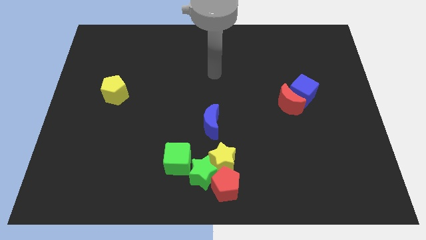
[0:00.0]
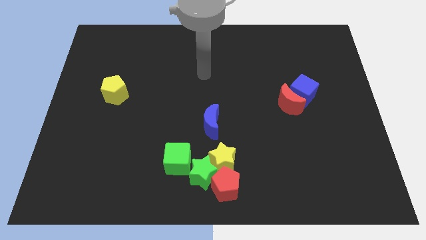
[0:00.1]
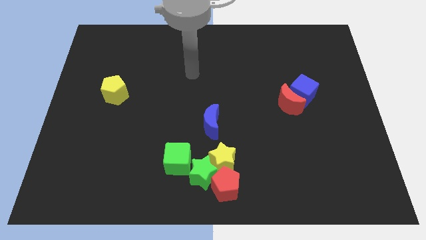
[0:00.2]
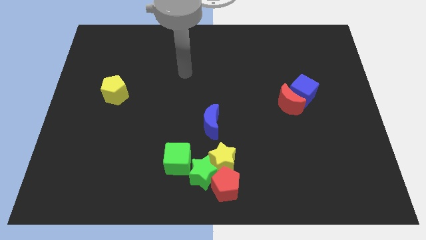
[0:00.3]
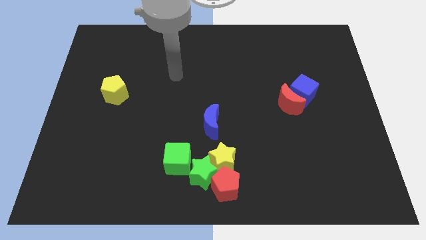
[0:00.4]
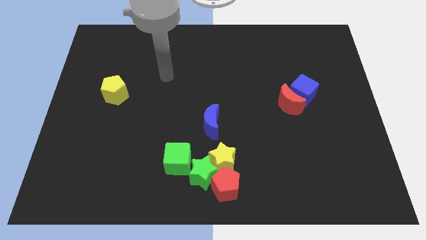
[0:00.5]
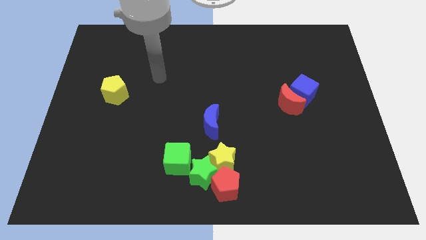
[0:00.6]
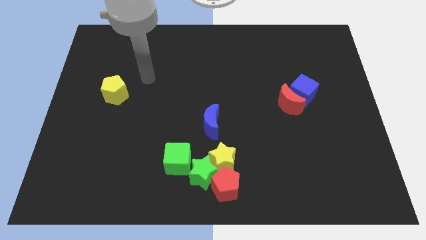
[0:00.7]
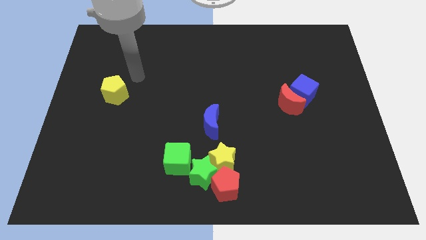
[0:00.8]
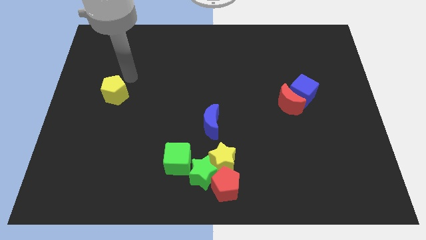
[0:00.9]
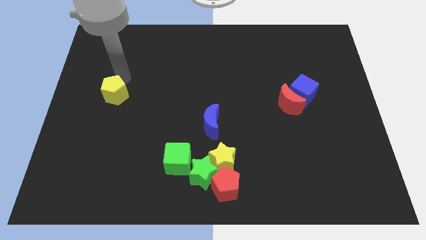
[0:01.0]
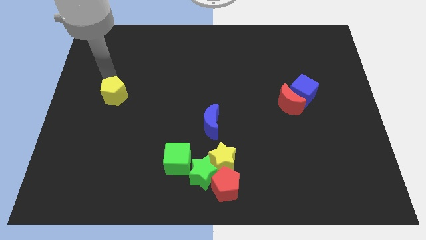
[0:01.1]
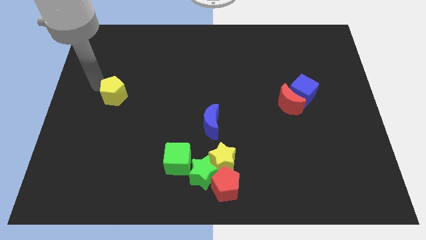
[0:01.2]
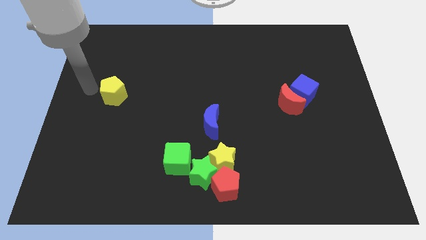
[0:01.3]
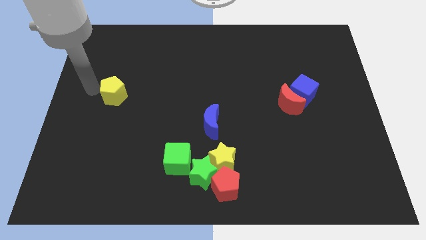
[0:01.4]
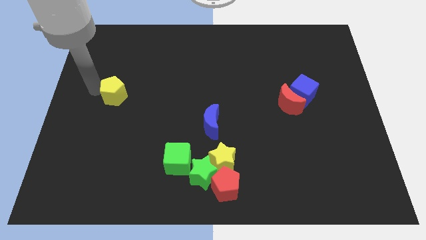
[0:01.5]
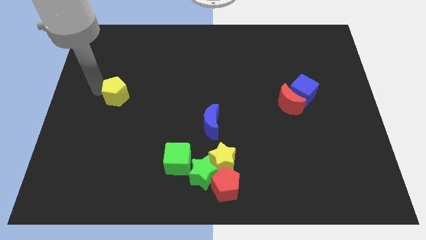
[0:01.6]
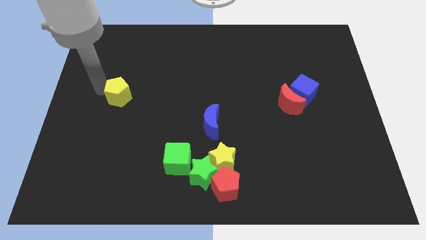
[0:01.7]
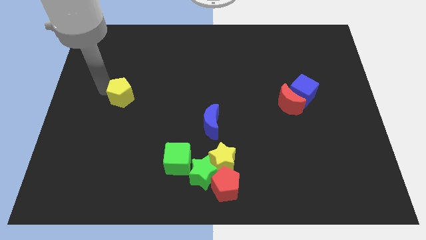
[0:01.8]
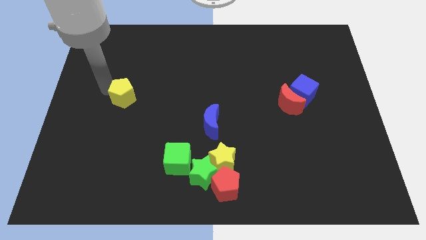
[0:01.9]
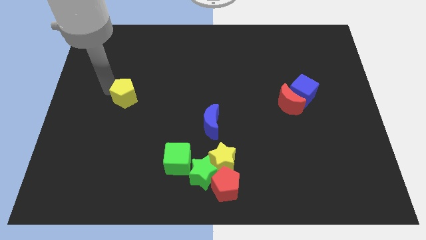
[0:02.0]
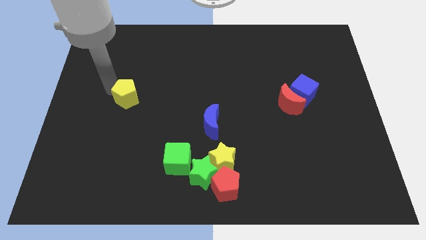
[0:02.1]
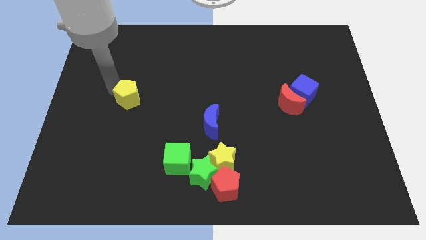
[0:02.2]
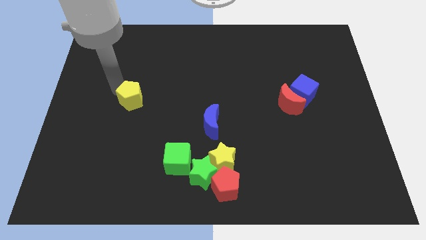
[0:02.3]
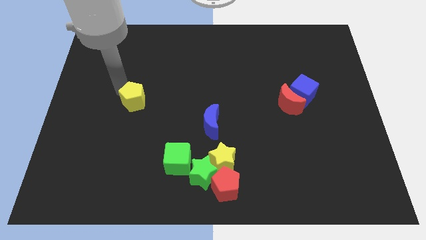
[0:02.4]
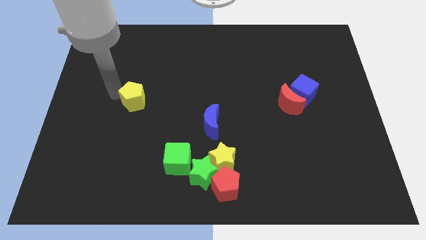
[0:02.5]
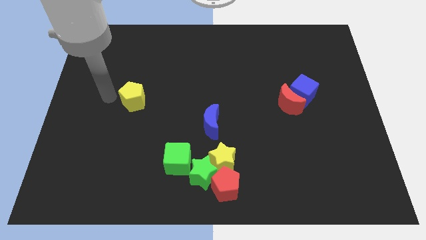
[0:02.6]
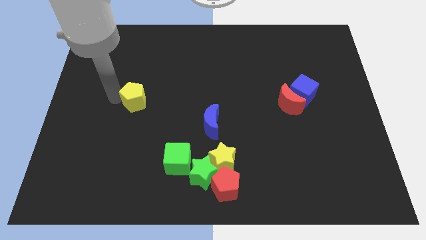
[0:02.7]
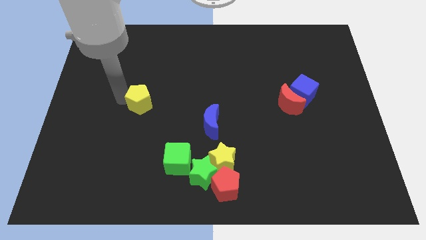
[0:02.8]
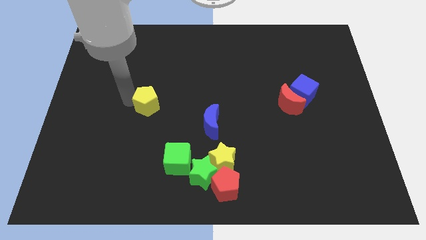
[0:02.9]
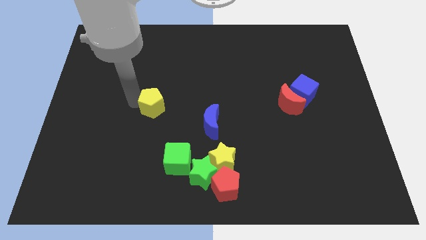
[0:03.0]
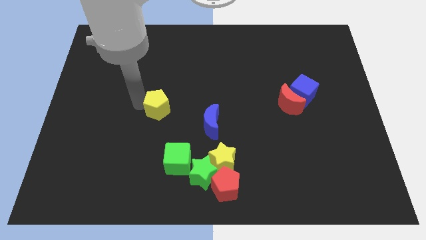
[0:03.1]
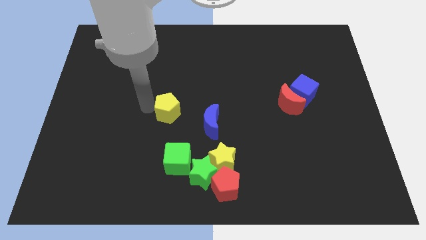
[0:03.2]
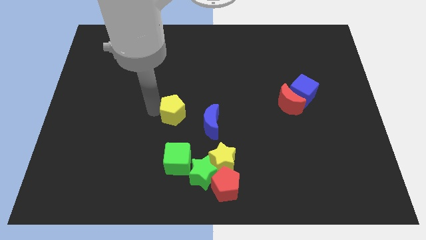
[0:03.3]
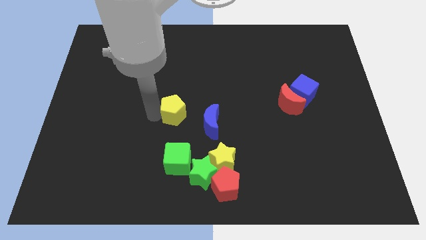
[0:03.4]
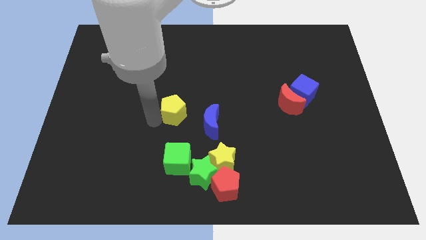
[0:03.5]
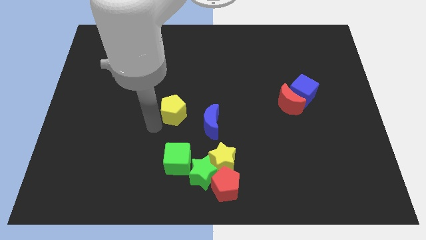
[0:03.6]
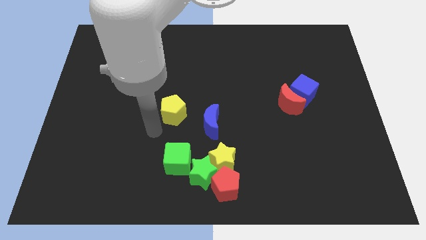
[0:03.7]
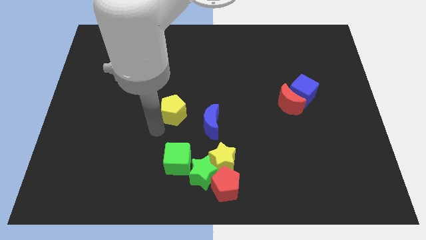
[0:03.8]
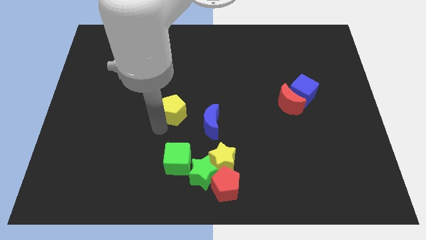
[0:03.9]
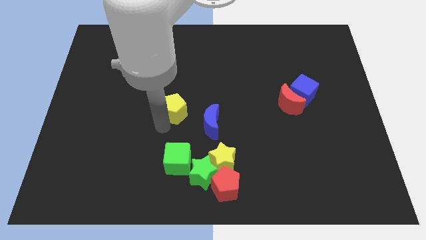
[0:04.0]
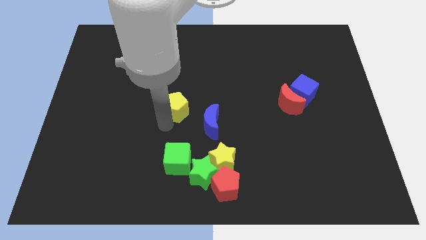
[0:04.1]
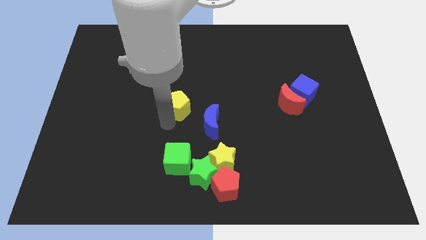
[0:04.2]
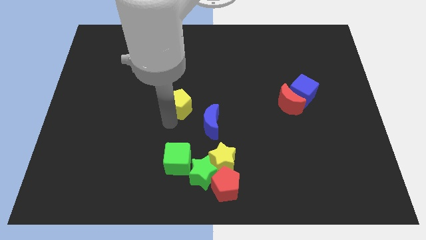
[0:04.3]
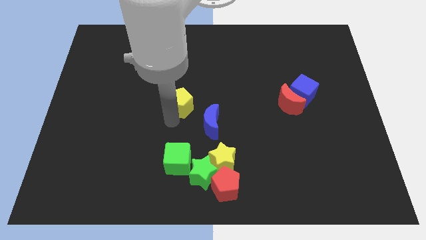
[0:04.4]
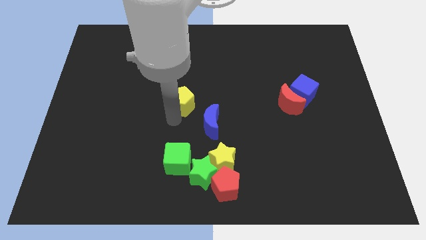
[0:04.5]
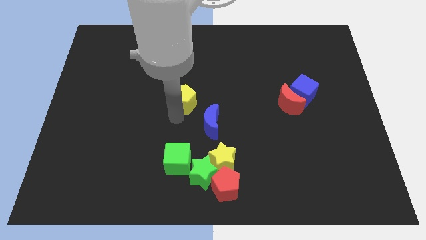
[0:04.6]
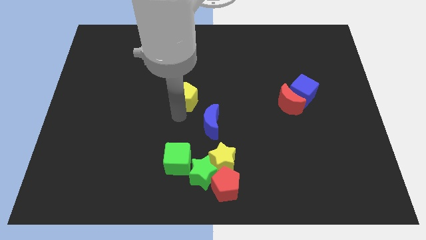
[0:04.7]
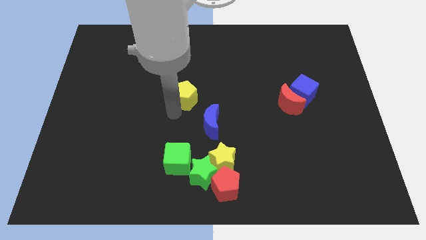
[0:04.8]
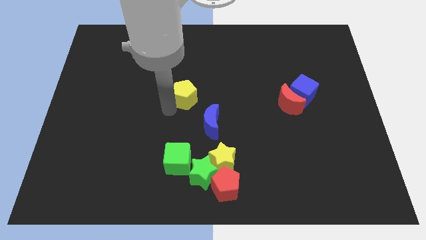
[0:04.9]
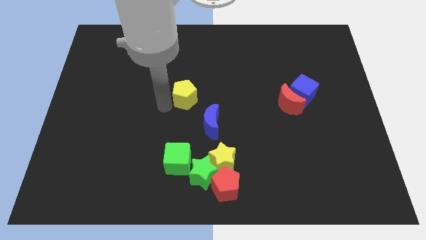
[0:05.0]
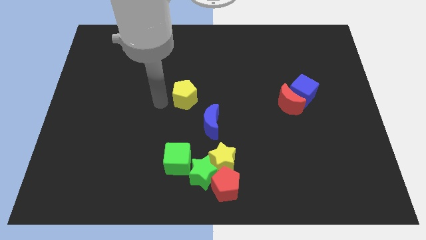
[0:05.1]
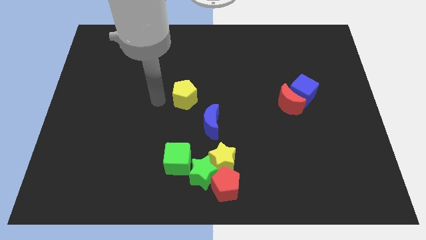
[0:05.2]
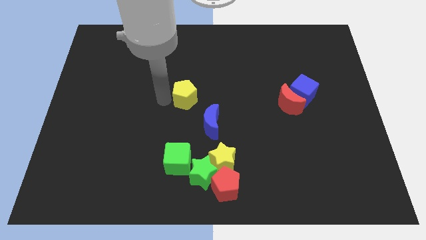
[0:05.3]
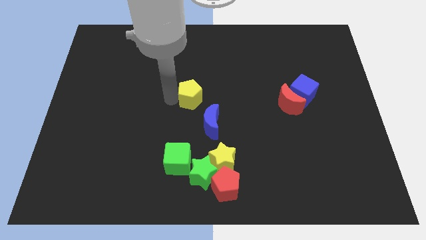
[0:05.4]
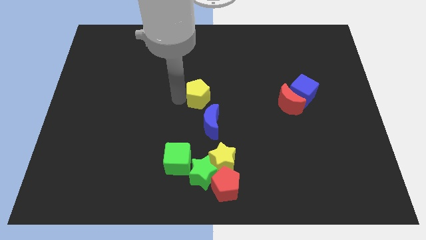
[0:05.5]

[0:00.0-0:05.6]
slide the yellow pentagon to the right

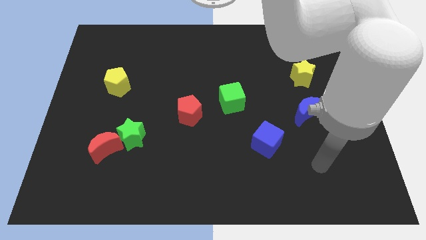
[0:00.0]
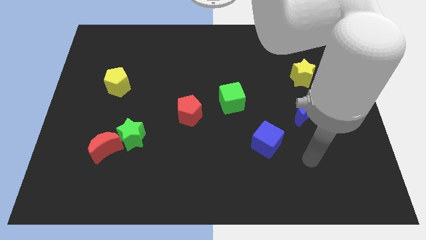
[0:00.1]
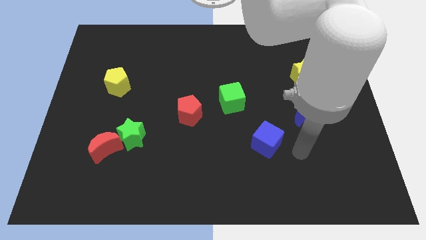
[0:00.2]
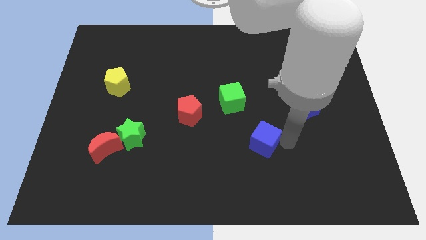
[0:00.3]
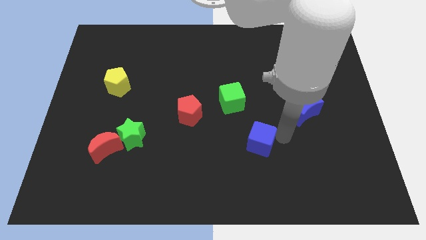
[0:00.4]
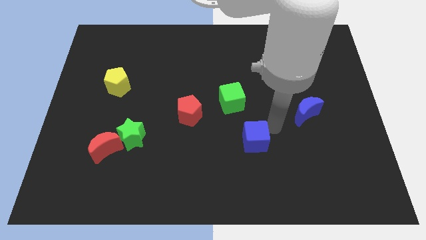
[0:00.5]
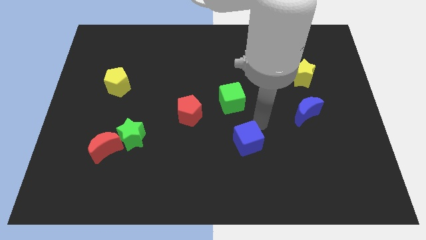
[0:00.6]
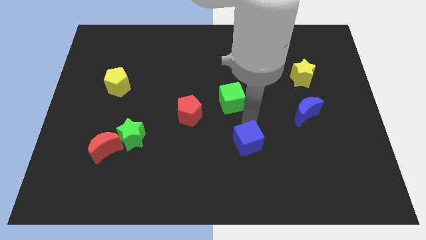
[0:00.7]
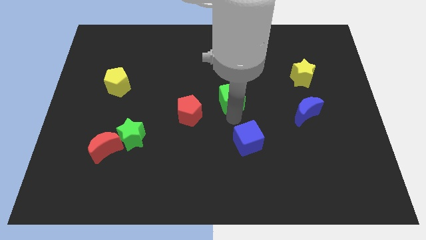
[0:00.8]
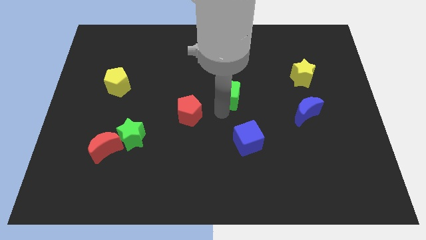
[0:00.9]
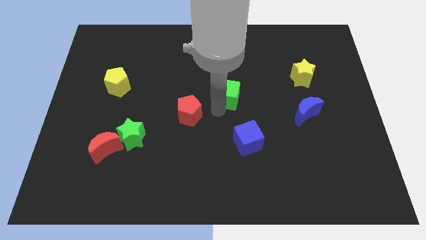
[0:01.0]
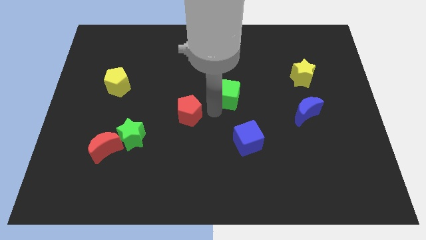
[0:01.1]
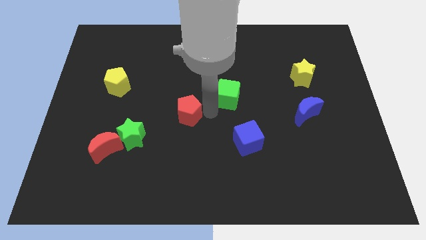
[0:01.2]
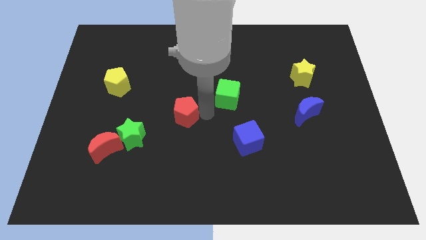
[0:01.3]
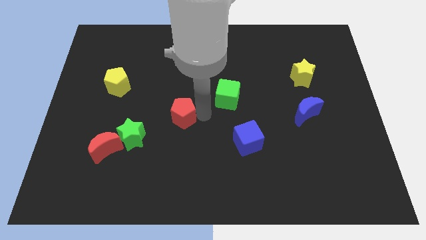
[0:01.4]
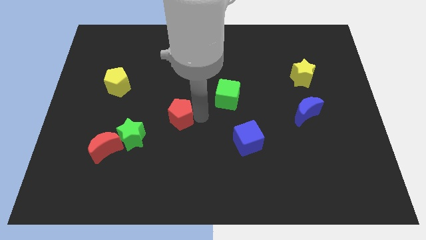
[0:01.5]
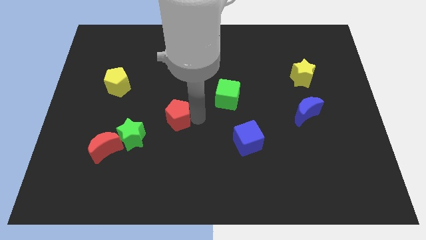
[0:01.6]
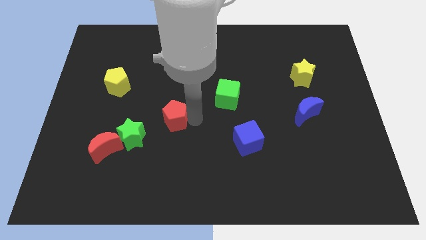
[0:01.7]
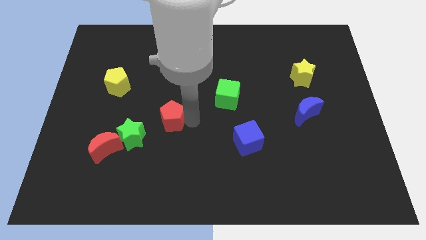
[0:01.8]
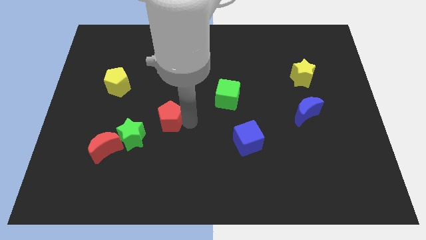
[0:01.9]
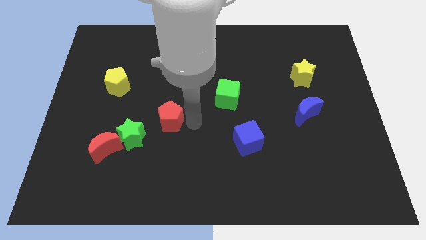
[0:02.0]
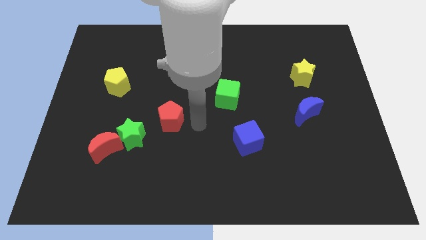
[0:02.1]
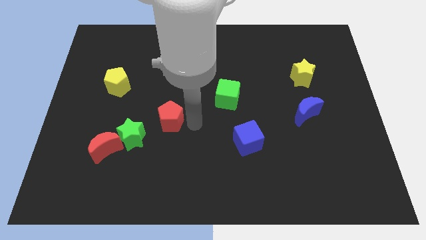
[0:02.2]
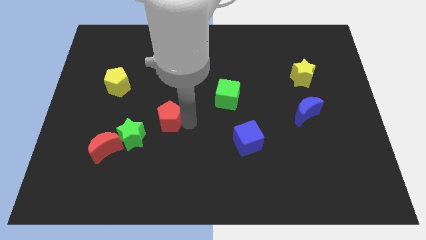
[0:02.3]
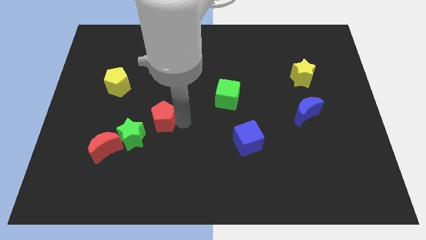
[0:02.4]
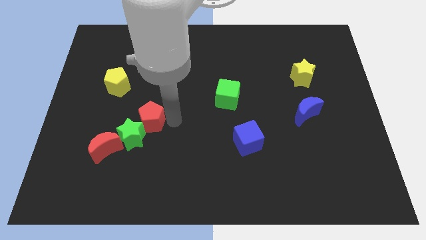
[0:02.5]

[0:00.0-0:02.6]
push the red pentagon left slightly
